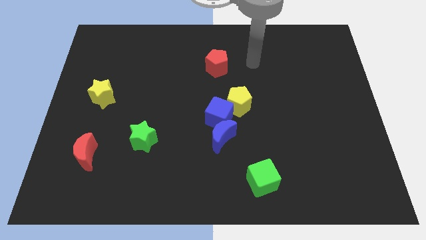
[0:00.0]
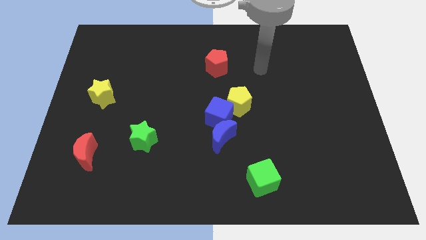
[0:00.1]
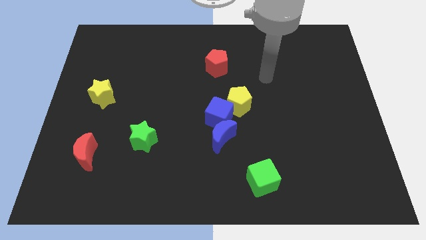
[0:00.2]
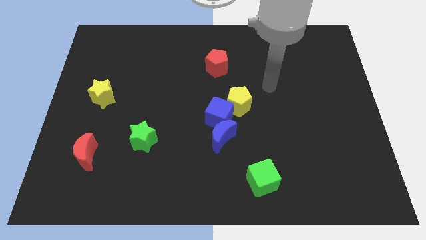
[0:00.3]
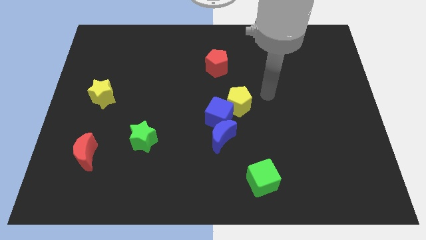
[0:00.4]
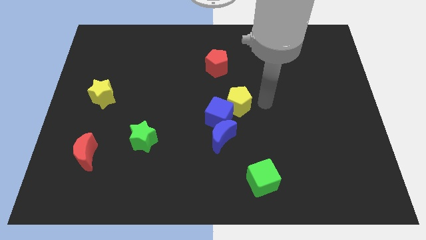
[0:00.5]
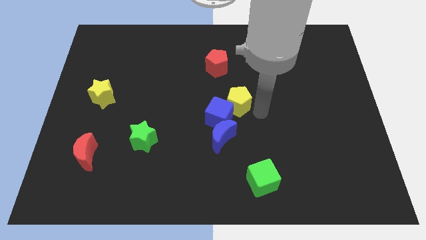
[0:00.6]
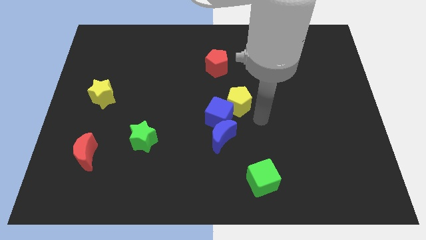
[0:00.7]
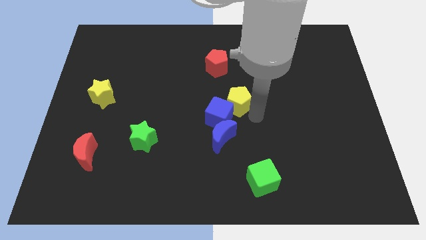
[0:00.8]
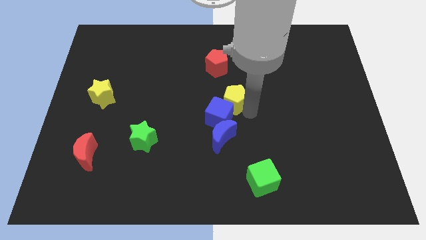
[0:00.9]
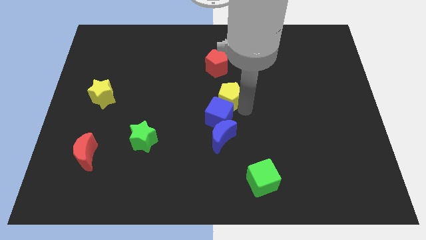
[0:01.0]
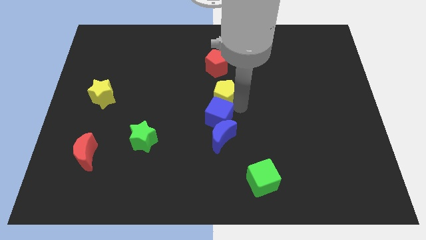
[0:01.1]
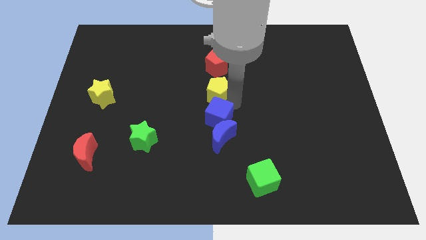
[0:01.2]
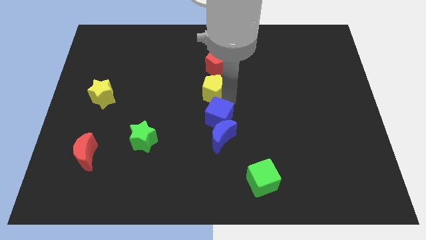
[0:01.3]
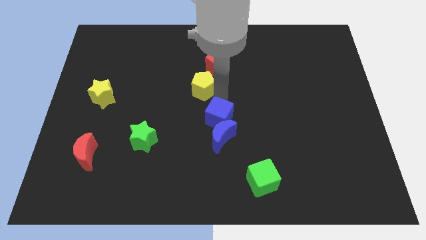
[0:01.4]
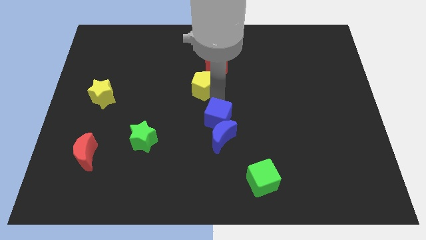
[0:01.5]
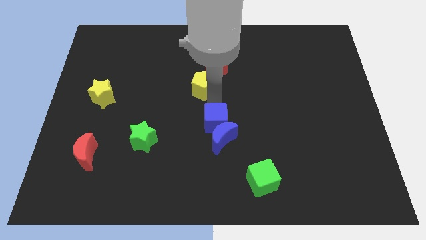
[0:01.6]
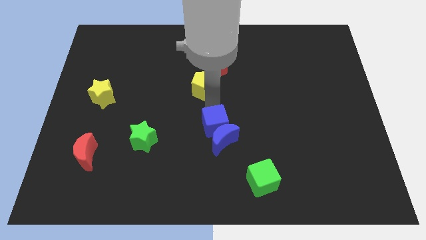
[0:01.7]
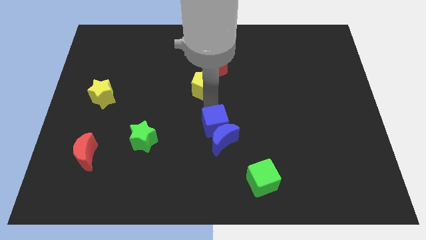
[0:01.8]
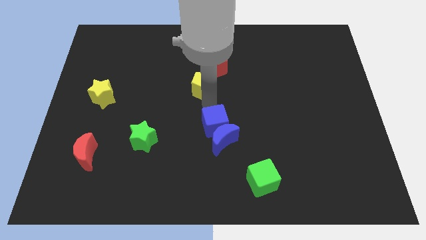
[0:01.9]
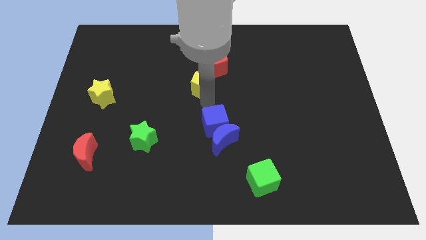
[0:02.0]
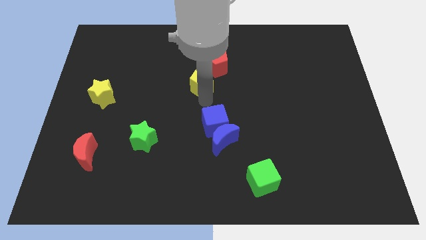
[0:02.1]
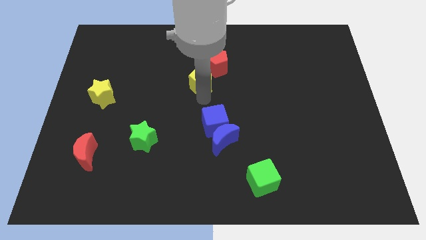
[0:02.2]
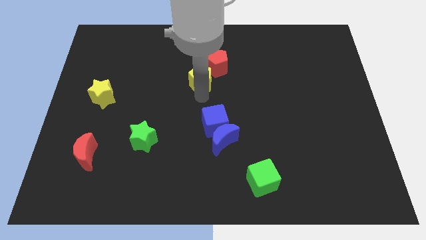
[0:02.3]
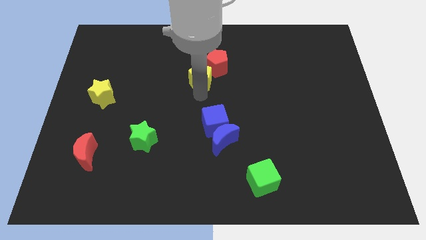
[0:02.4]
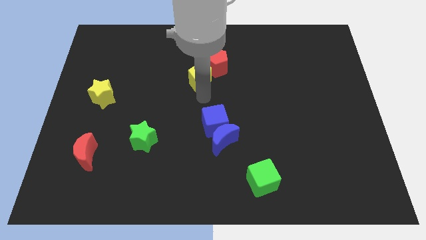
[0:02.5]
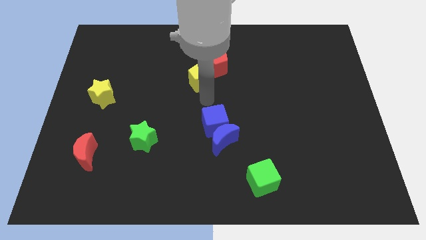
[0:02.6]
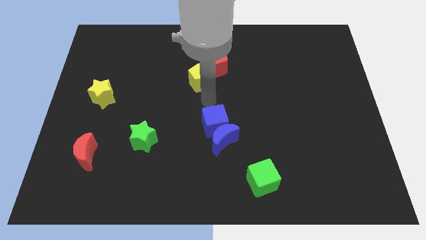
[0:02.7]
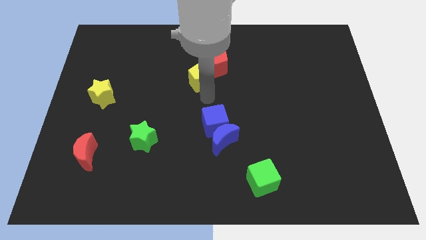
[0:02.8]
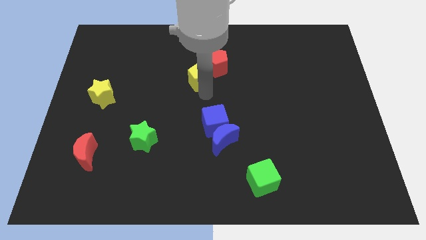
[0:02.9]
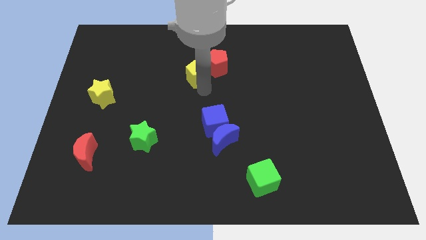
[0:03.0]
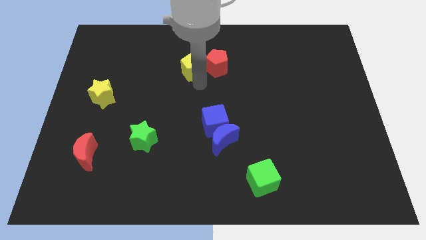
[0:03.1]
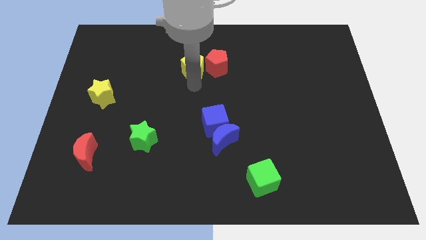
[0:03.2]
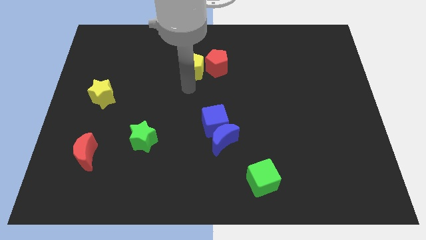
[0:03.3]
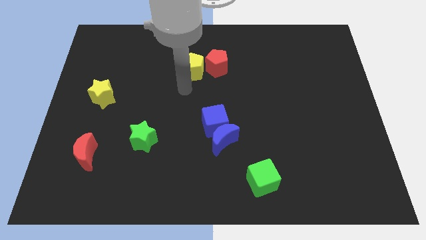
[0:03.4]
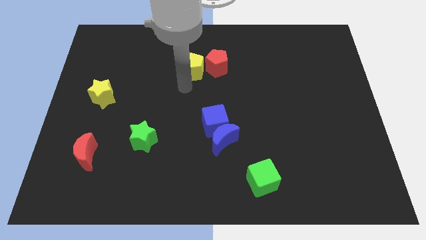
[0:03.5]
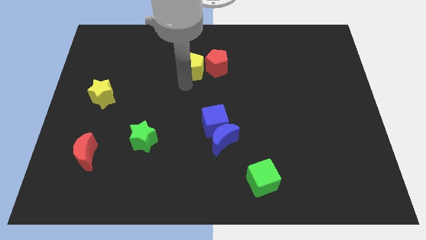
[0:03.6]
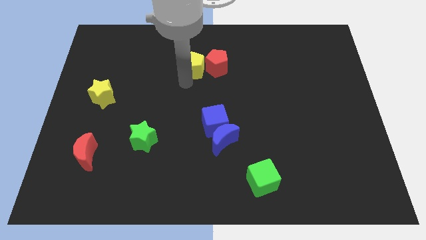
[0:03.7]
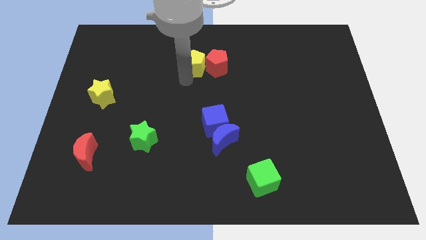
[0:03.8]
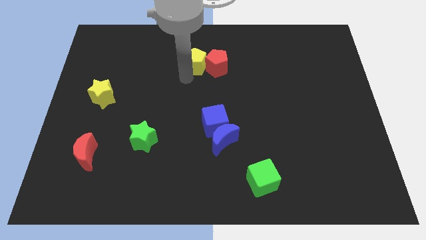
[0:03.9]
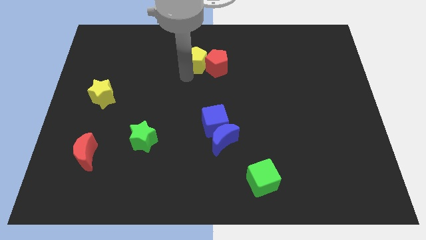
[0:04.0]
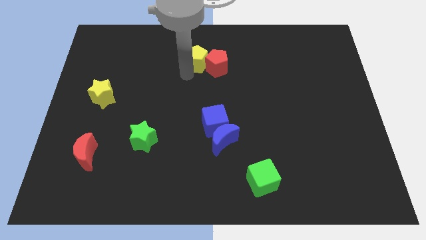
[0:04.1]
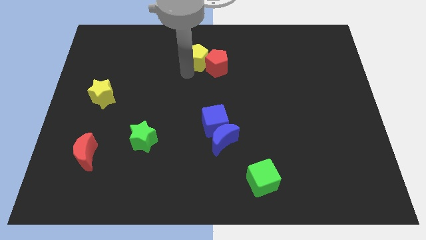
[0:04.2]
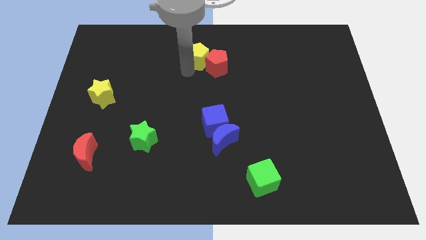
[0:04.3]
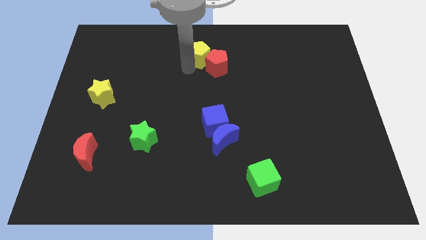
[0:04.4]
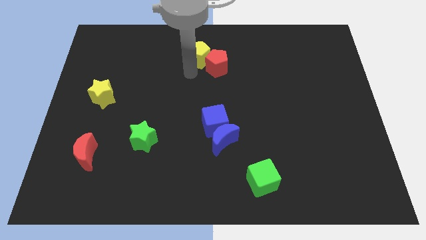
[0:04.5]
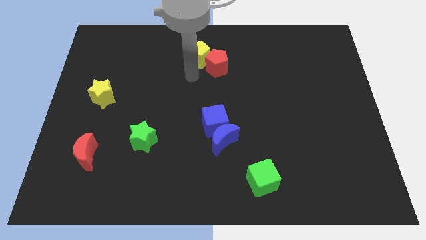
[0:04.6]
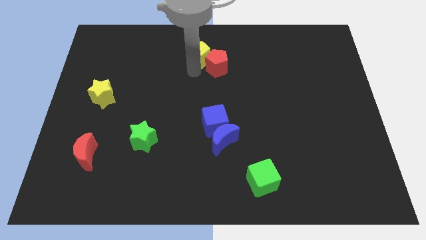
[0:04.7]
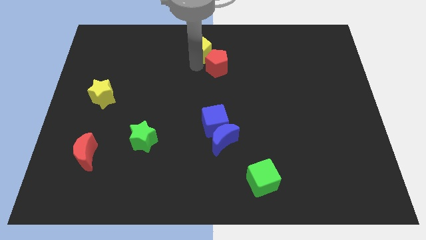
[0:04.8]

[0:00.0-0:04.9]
push the yellow pentagon to the towards your base
